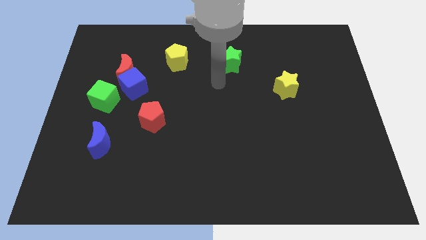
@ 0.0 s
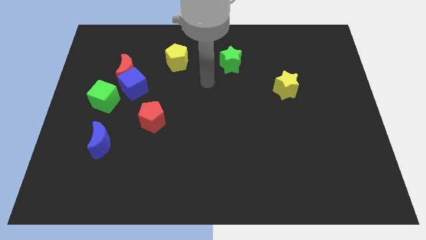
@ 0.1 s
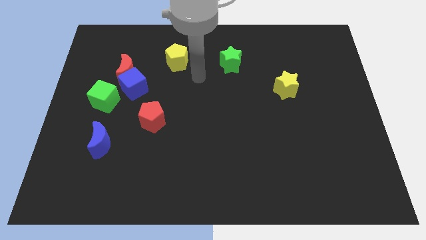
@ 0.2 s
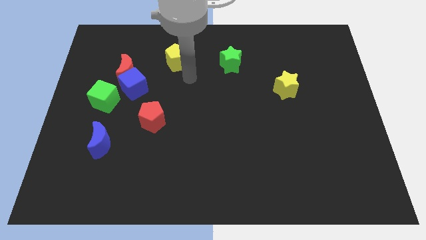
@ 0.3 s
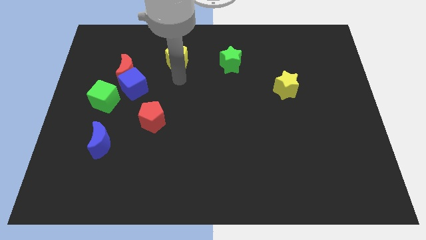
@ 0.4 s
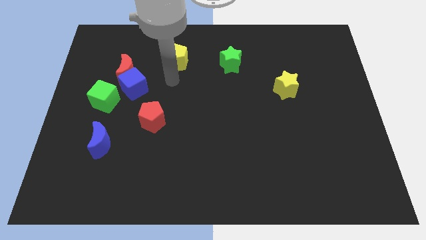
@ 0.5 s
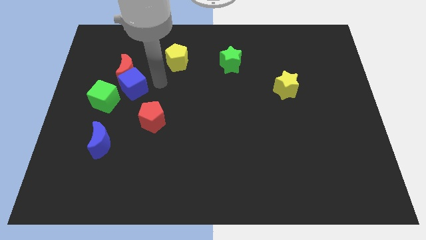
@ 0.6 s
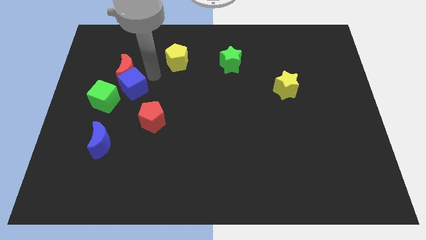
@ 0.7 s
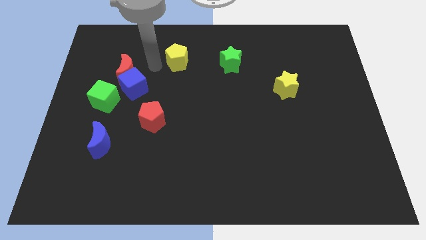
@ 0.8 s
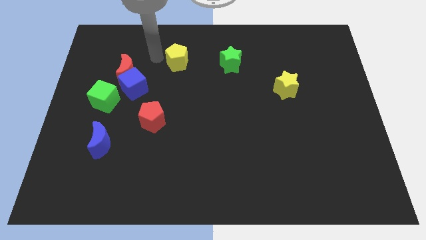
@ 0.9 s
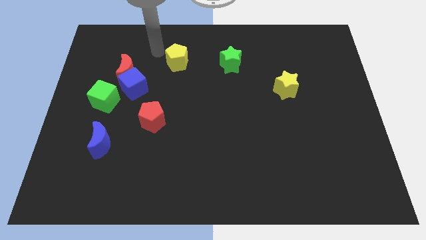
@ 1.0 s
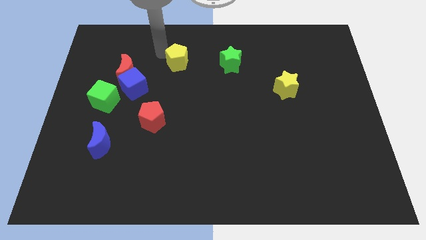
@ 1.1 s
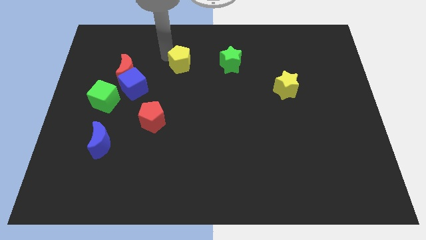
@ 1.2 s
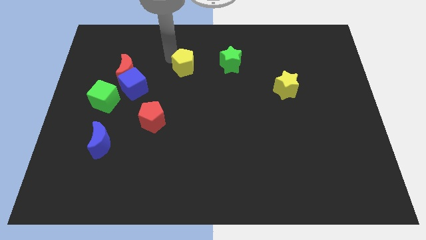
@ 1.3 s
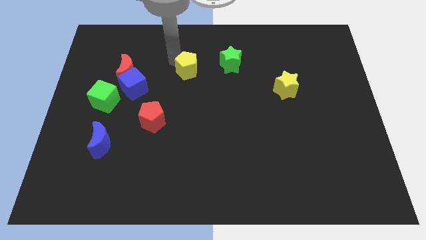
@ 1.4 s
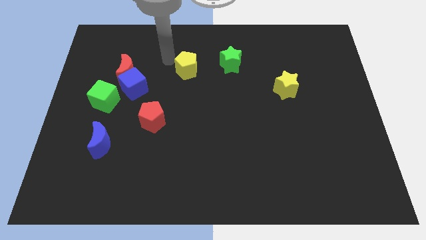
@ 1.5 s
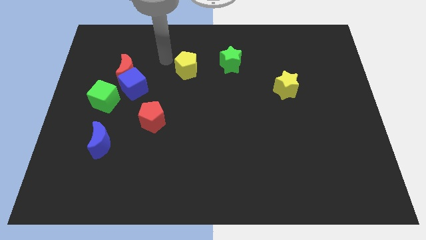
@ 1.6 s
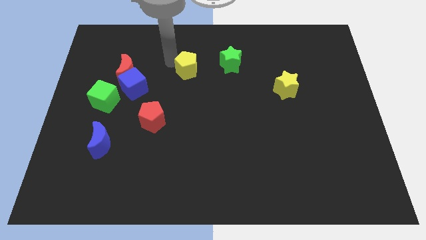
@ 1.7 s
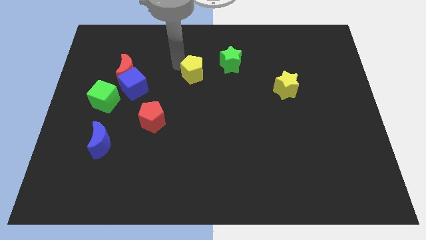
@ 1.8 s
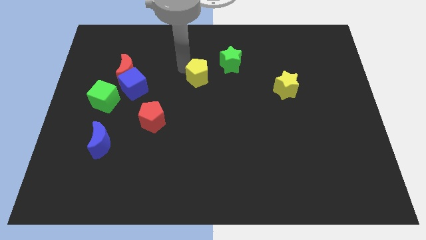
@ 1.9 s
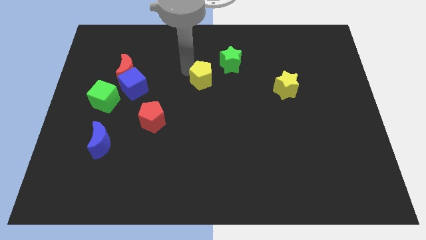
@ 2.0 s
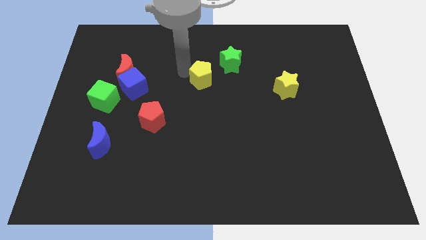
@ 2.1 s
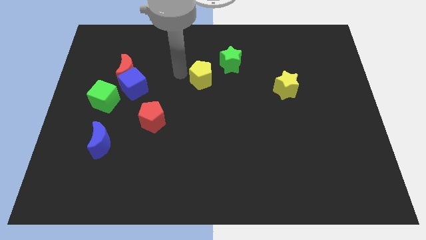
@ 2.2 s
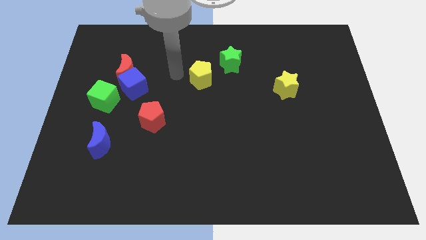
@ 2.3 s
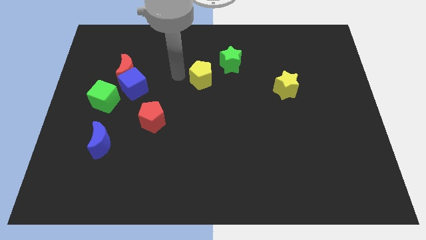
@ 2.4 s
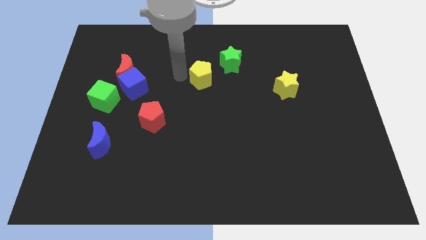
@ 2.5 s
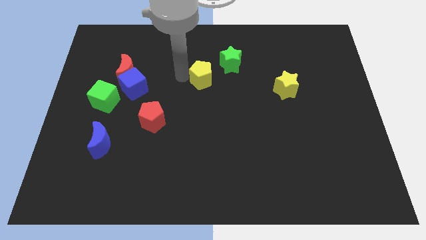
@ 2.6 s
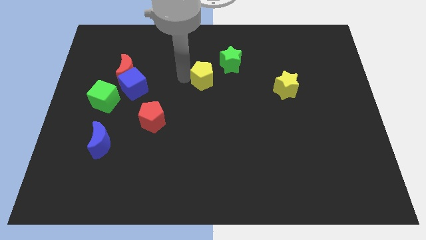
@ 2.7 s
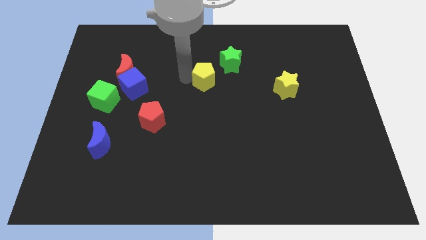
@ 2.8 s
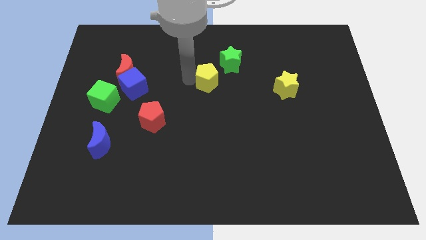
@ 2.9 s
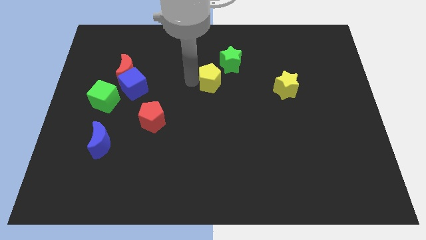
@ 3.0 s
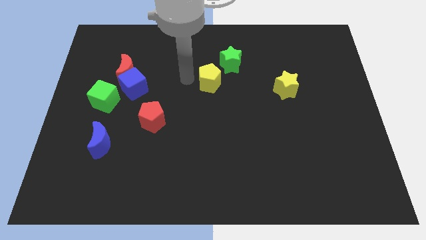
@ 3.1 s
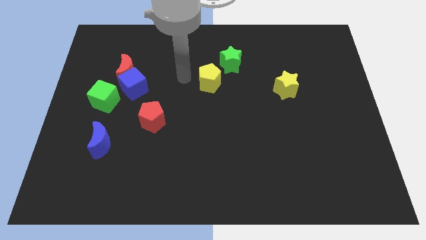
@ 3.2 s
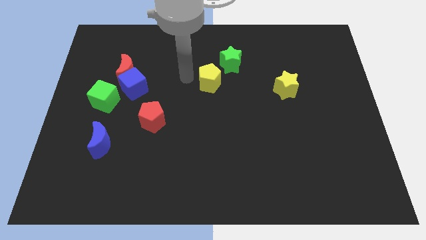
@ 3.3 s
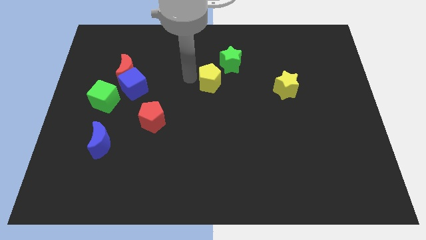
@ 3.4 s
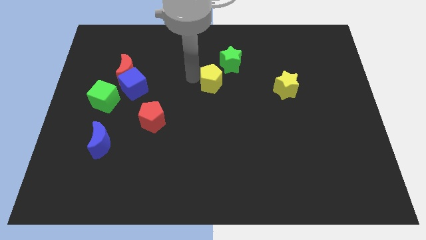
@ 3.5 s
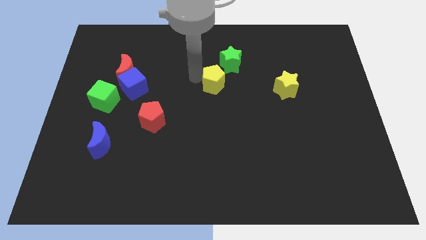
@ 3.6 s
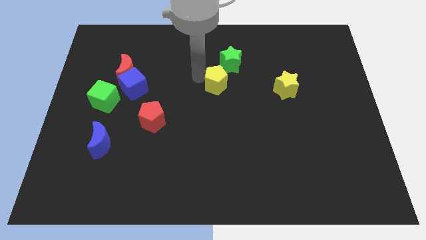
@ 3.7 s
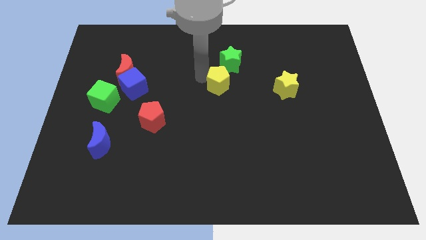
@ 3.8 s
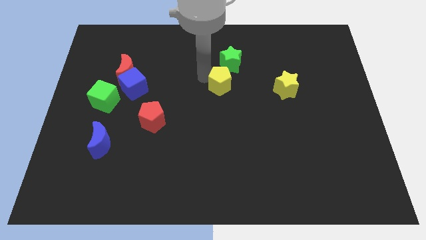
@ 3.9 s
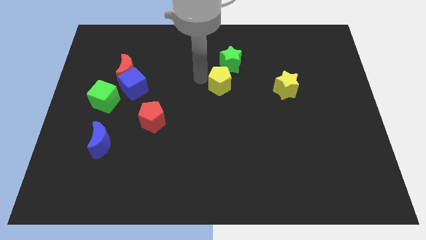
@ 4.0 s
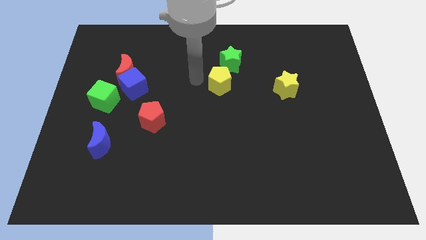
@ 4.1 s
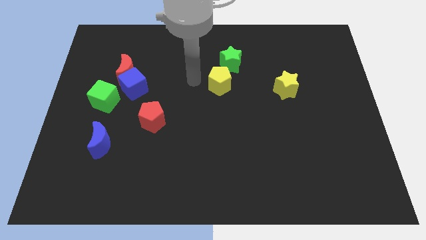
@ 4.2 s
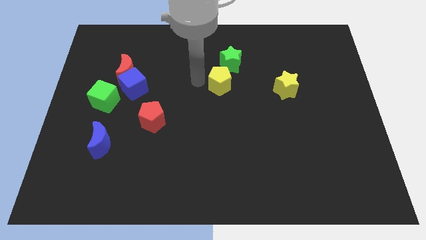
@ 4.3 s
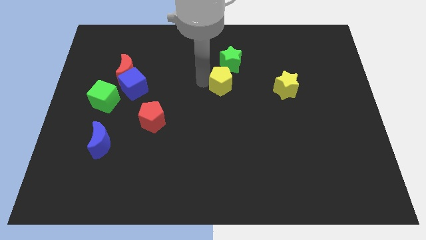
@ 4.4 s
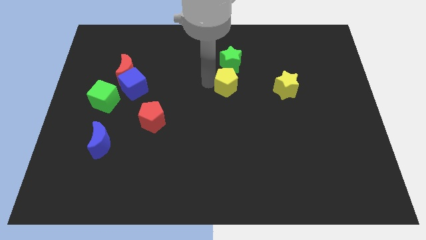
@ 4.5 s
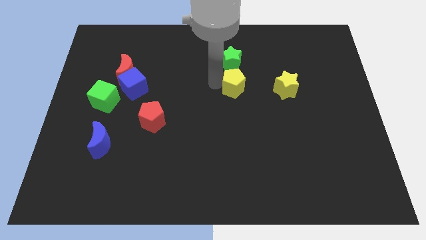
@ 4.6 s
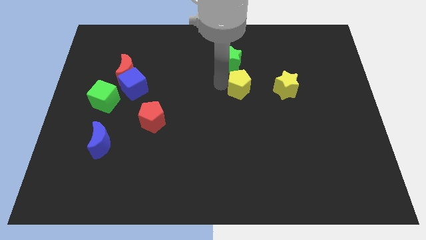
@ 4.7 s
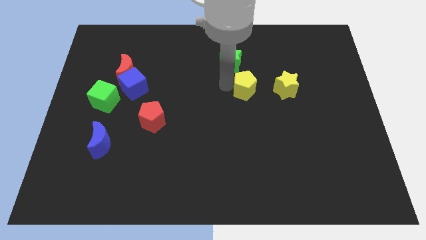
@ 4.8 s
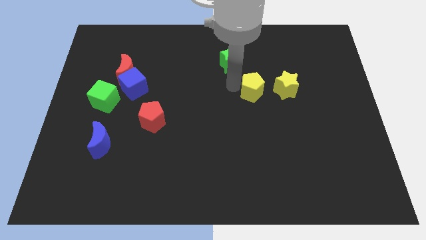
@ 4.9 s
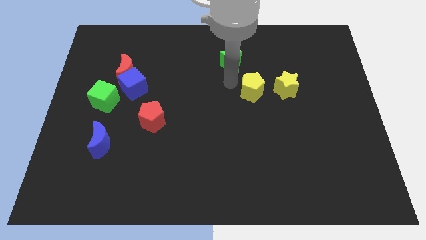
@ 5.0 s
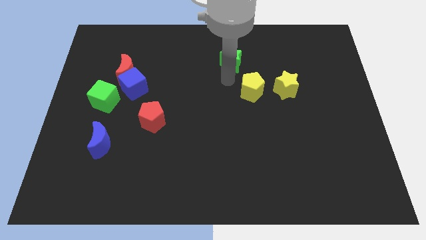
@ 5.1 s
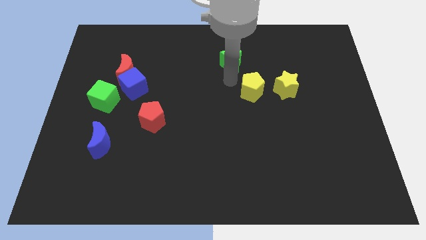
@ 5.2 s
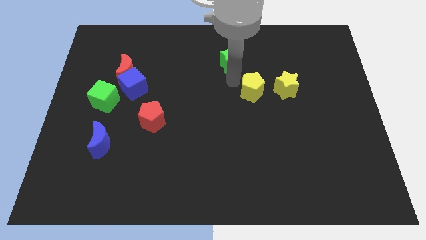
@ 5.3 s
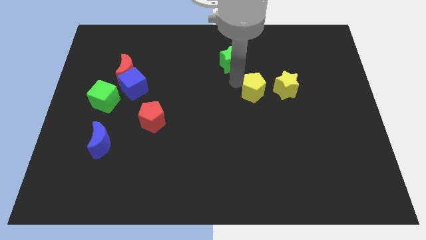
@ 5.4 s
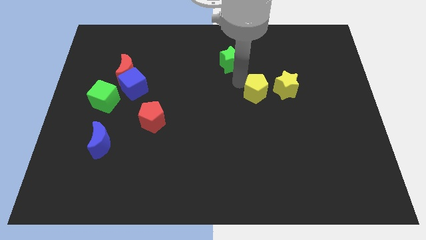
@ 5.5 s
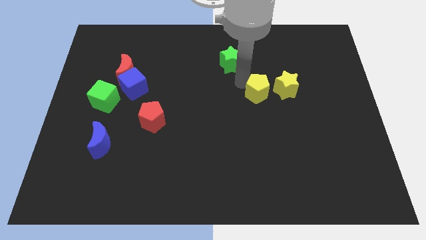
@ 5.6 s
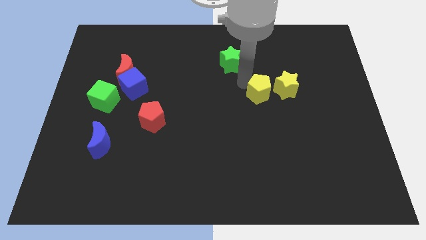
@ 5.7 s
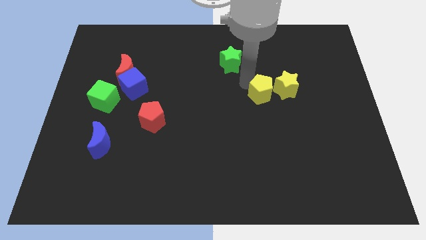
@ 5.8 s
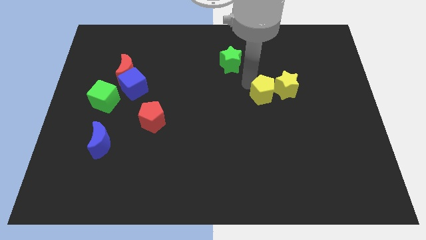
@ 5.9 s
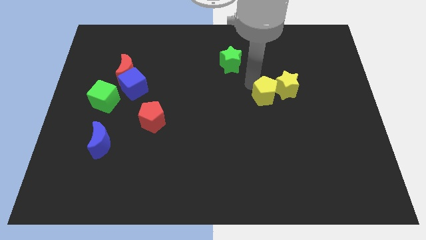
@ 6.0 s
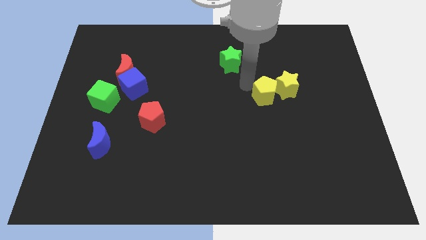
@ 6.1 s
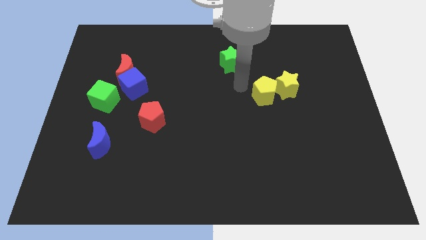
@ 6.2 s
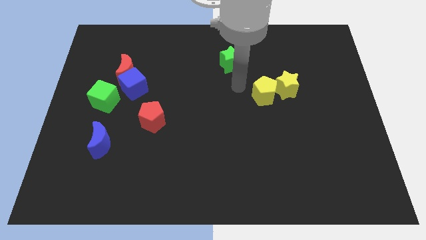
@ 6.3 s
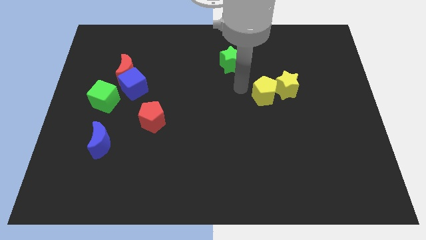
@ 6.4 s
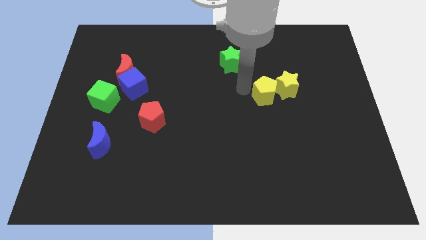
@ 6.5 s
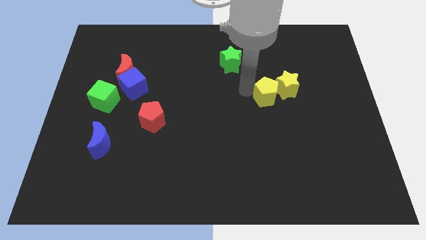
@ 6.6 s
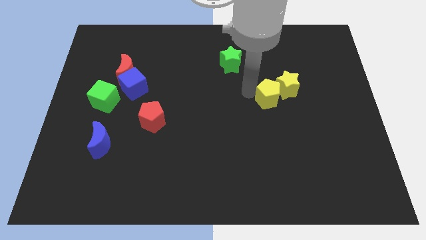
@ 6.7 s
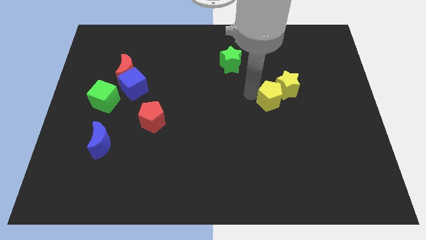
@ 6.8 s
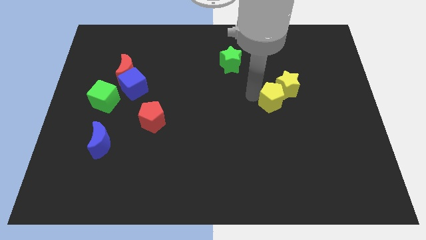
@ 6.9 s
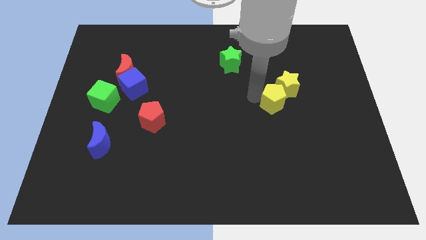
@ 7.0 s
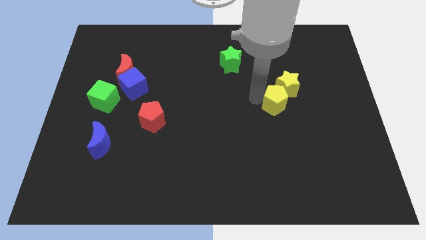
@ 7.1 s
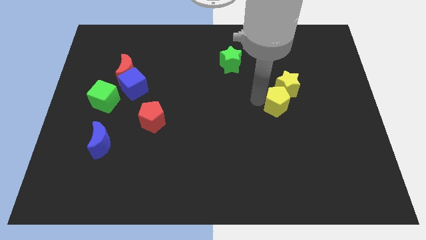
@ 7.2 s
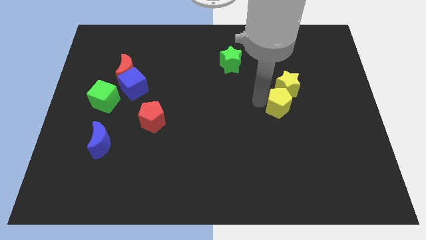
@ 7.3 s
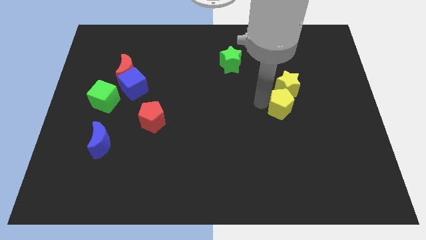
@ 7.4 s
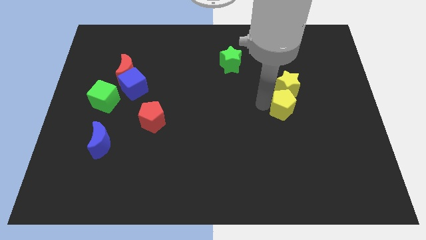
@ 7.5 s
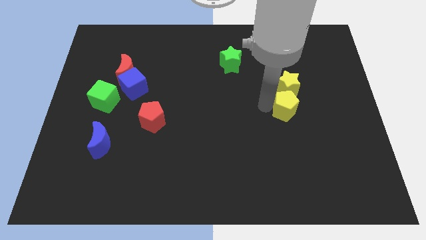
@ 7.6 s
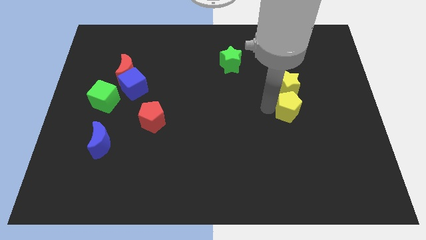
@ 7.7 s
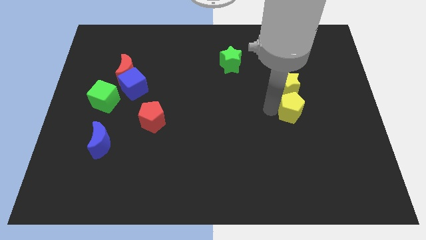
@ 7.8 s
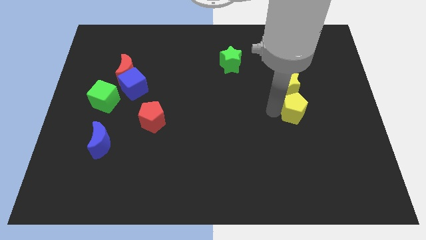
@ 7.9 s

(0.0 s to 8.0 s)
move the yellow pentagon to the bottom right of the yellow star
